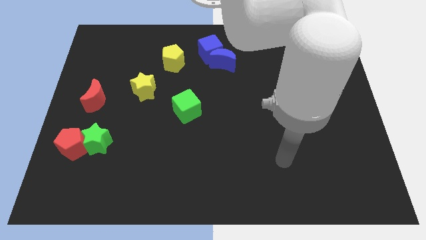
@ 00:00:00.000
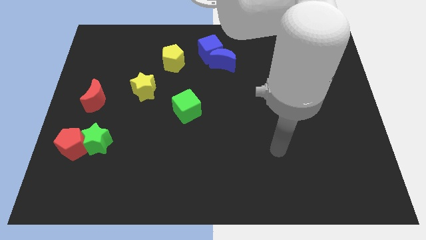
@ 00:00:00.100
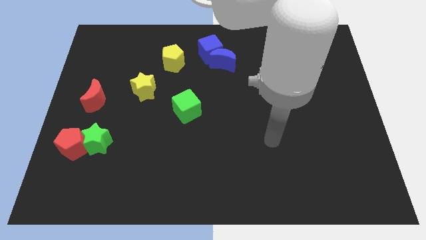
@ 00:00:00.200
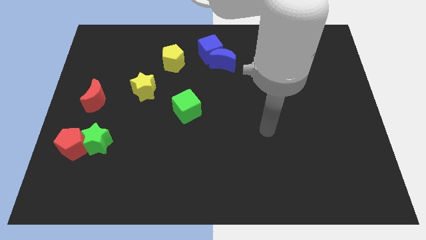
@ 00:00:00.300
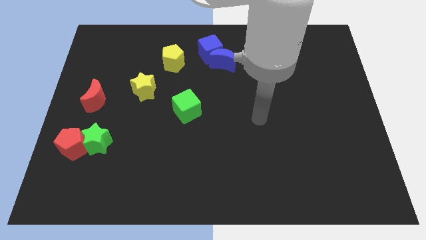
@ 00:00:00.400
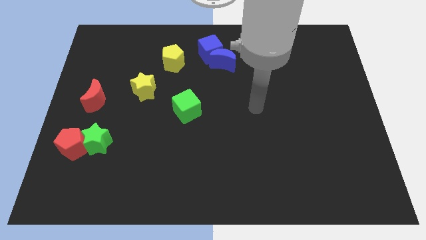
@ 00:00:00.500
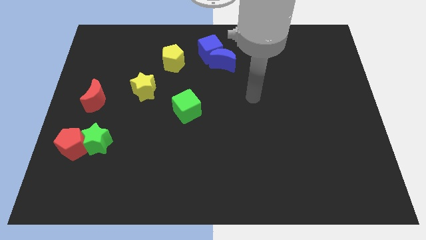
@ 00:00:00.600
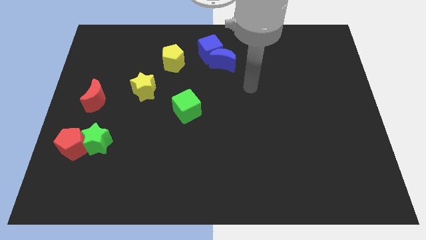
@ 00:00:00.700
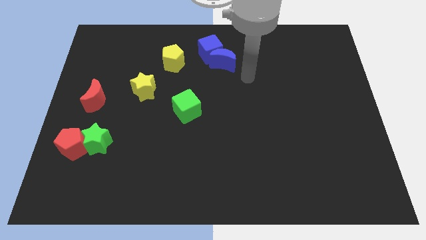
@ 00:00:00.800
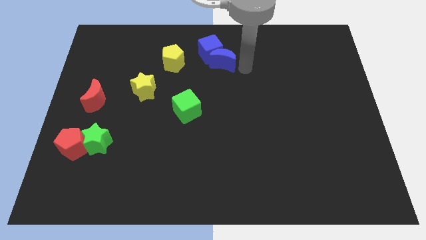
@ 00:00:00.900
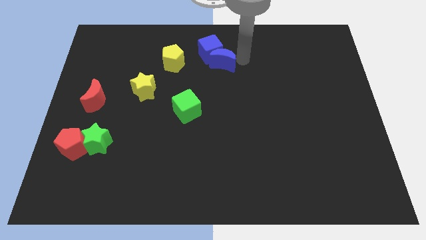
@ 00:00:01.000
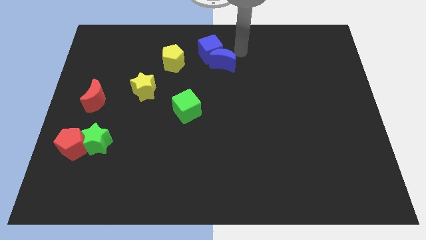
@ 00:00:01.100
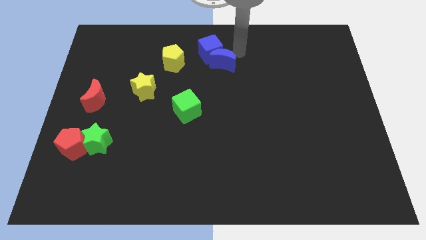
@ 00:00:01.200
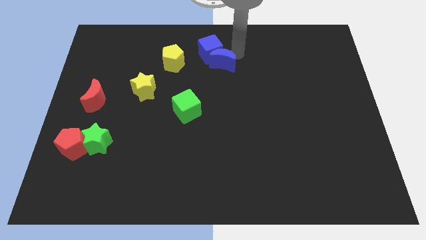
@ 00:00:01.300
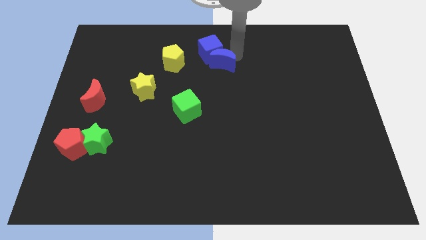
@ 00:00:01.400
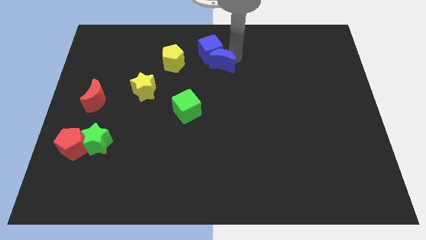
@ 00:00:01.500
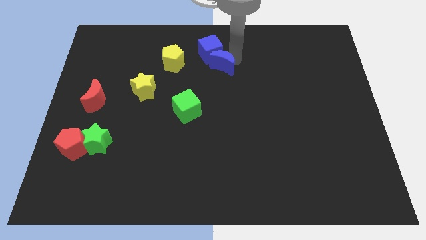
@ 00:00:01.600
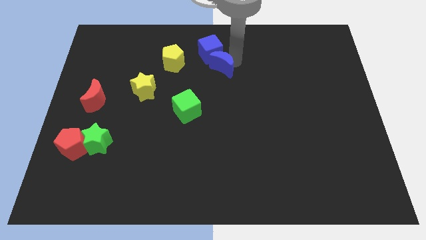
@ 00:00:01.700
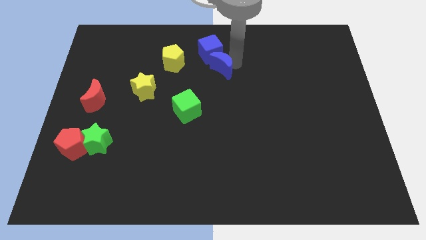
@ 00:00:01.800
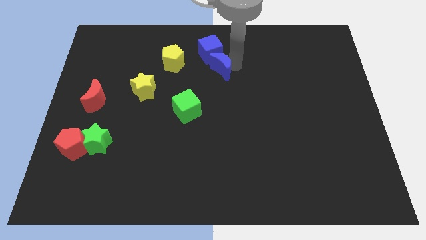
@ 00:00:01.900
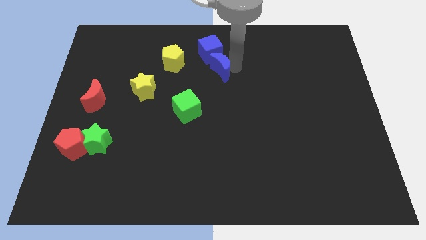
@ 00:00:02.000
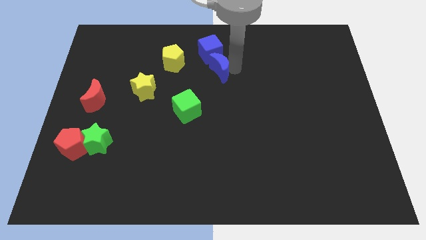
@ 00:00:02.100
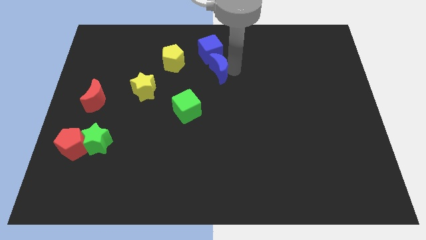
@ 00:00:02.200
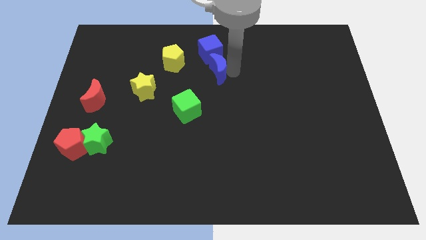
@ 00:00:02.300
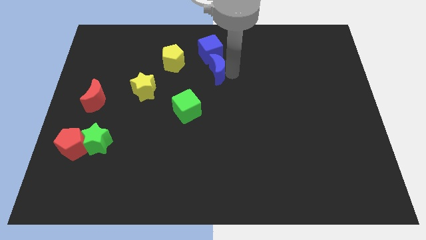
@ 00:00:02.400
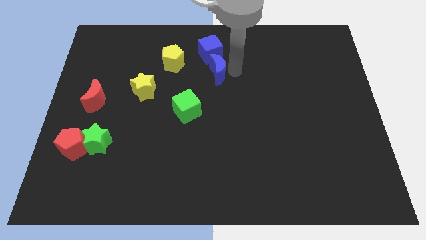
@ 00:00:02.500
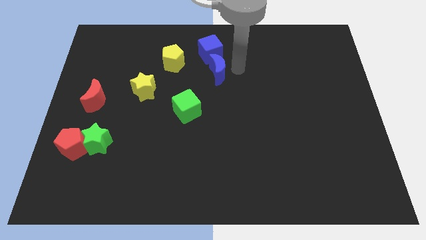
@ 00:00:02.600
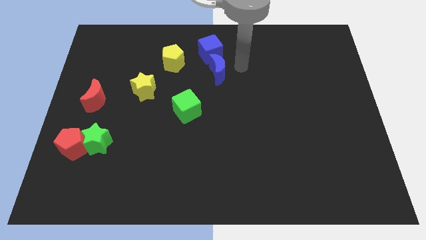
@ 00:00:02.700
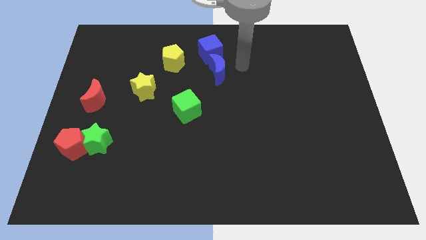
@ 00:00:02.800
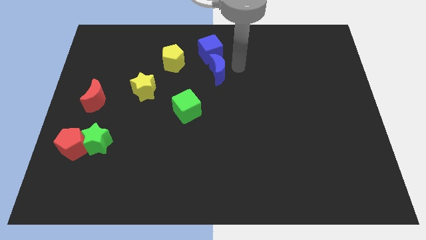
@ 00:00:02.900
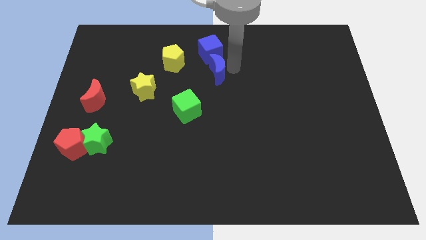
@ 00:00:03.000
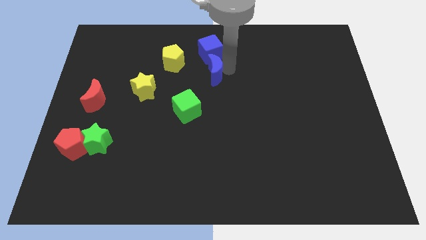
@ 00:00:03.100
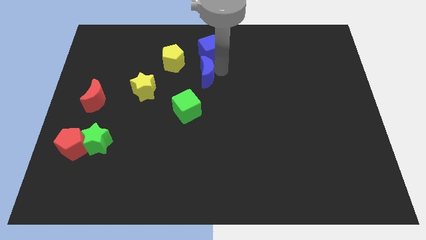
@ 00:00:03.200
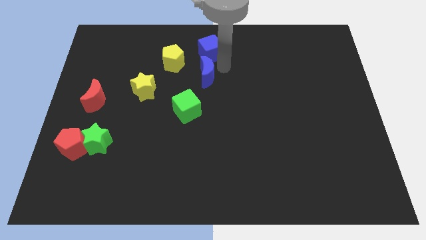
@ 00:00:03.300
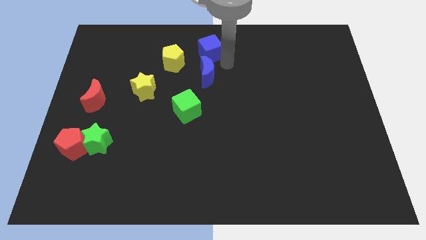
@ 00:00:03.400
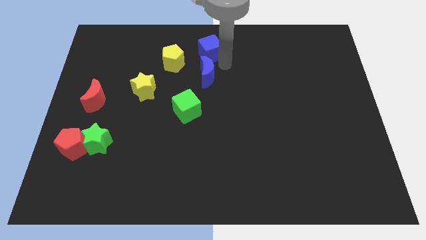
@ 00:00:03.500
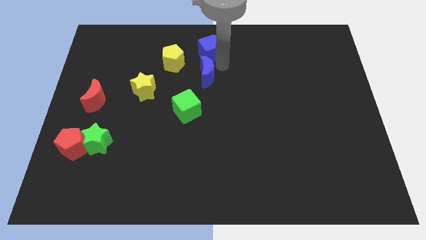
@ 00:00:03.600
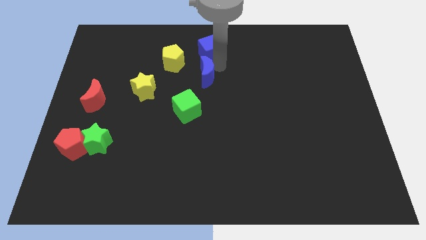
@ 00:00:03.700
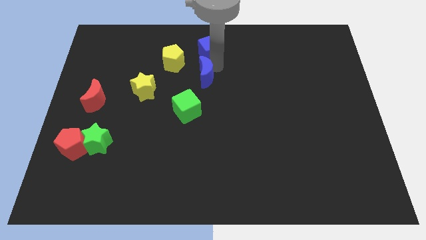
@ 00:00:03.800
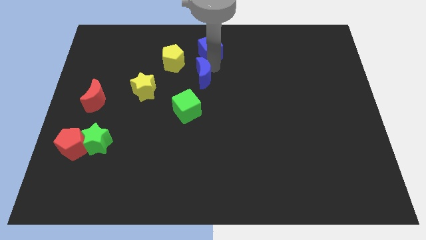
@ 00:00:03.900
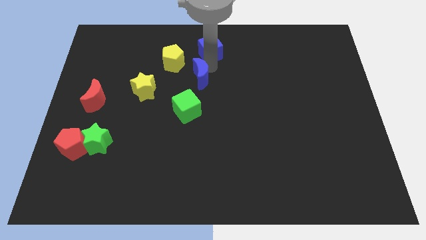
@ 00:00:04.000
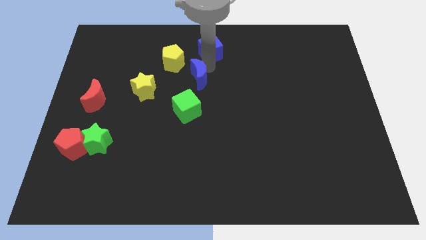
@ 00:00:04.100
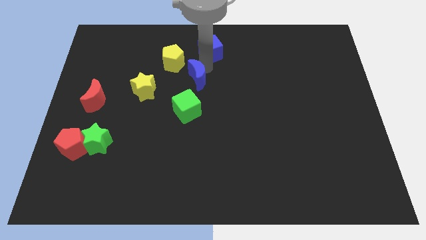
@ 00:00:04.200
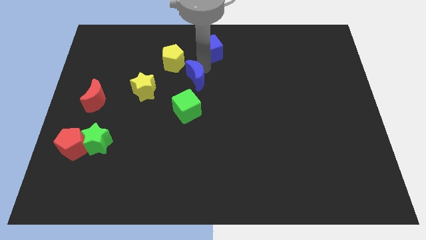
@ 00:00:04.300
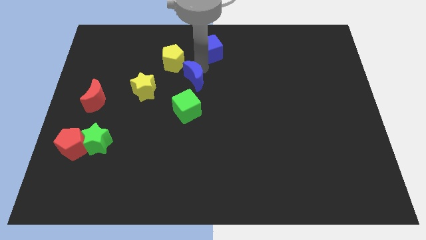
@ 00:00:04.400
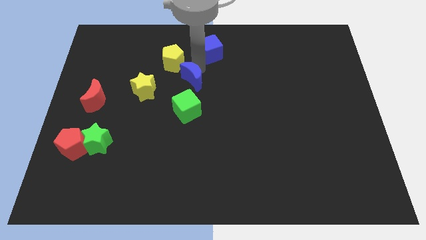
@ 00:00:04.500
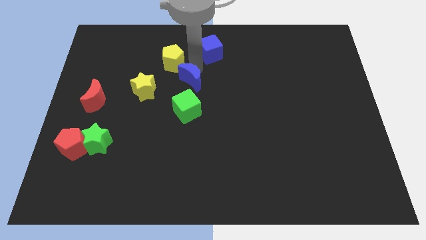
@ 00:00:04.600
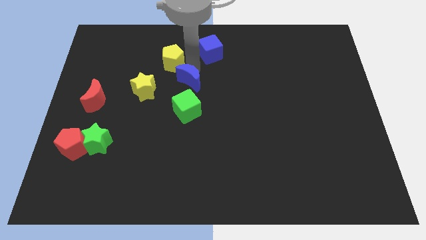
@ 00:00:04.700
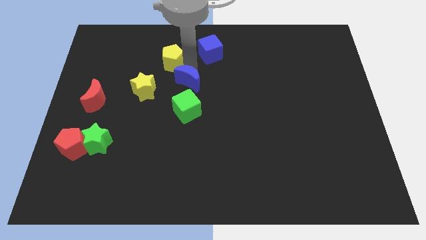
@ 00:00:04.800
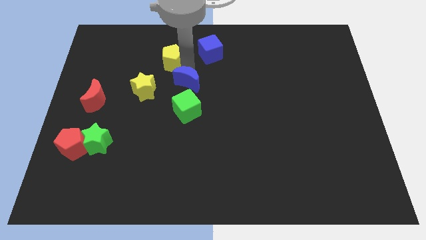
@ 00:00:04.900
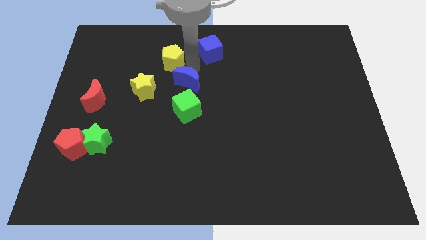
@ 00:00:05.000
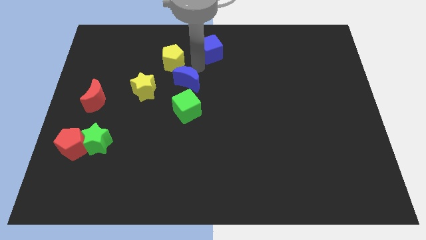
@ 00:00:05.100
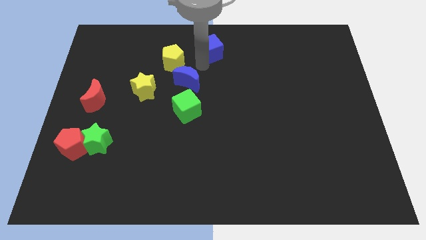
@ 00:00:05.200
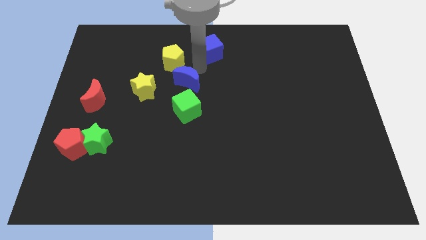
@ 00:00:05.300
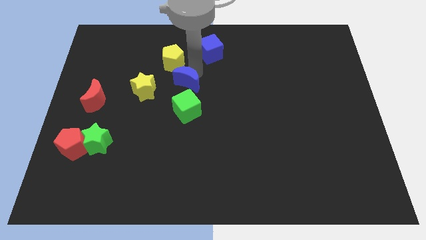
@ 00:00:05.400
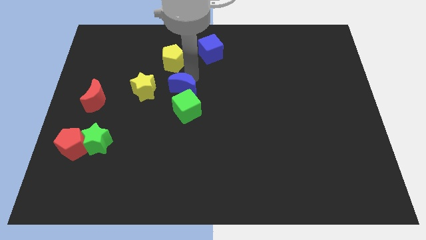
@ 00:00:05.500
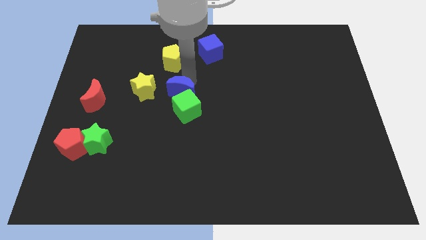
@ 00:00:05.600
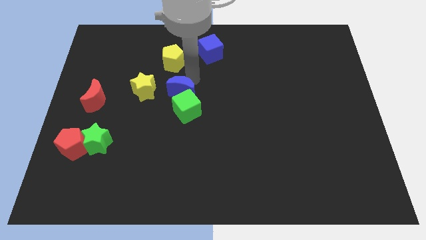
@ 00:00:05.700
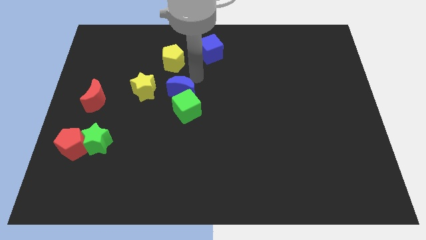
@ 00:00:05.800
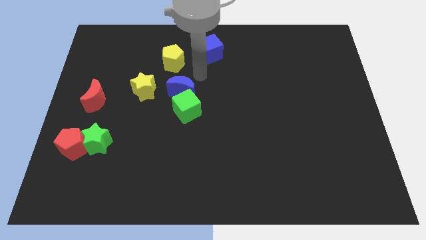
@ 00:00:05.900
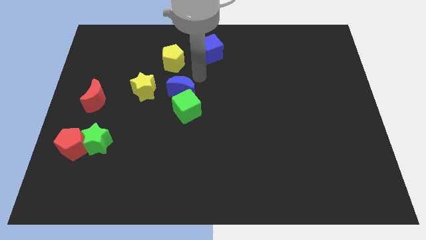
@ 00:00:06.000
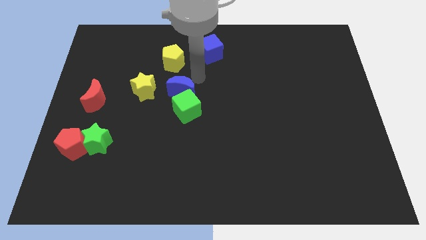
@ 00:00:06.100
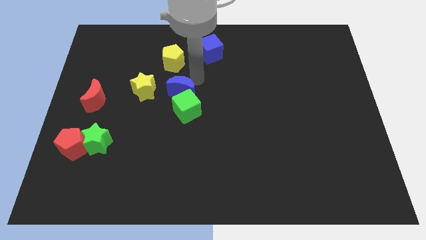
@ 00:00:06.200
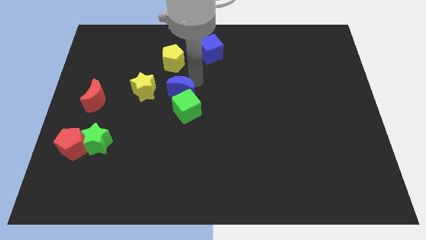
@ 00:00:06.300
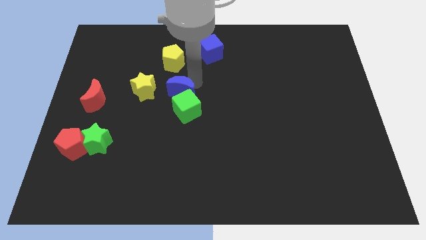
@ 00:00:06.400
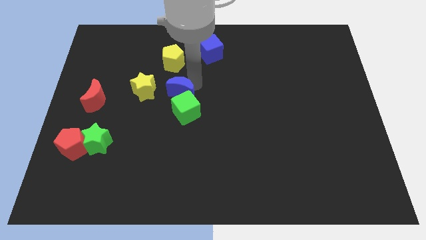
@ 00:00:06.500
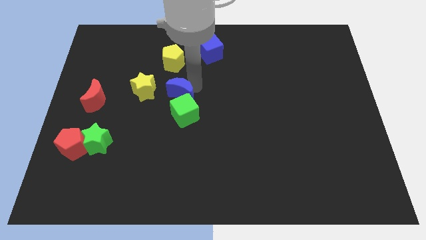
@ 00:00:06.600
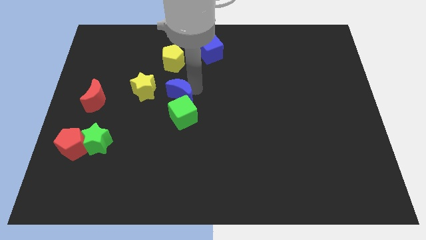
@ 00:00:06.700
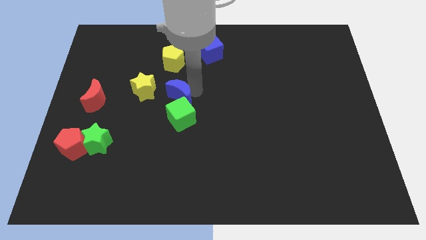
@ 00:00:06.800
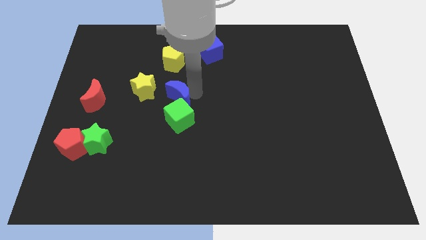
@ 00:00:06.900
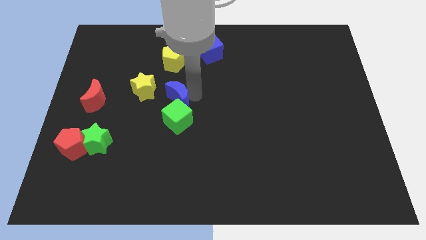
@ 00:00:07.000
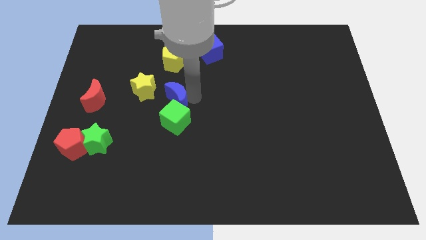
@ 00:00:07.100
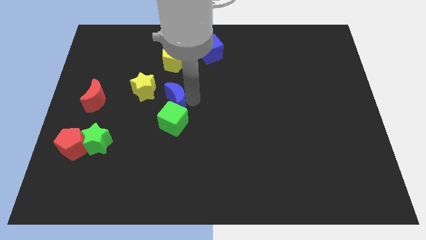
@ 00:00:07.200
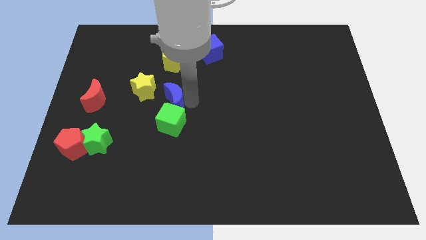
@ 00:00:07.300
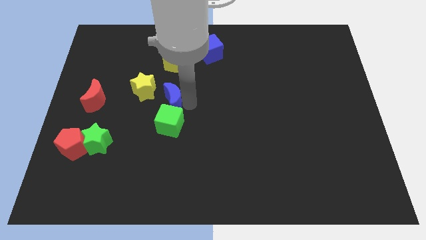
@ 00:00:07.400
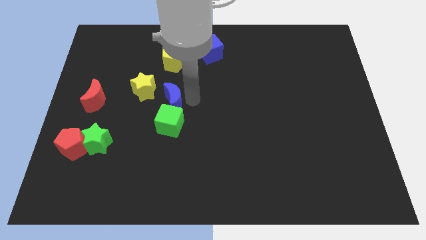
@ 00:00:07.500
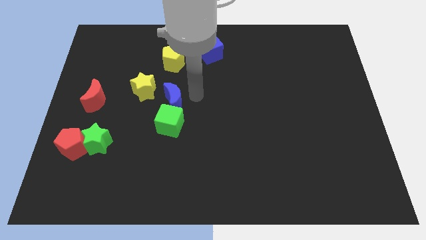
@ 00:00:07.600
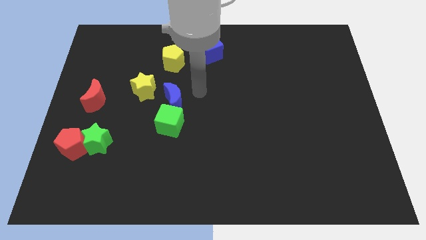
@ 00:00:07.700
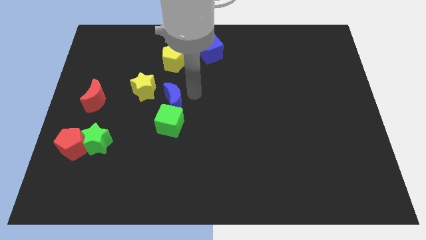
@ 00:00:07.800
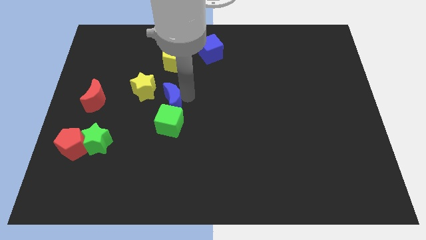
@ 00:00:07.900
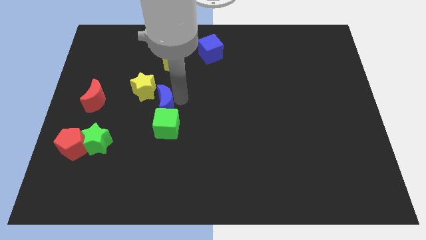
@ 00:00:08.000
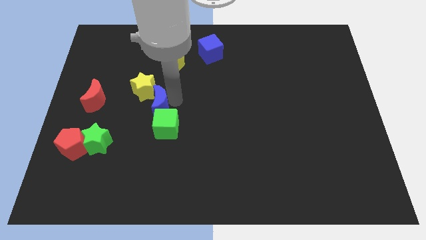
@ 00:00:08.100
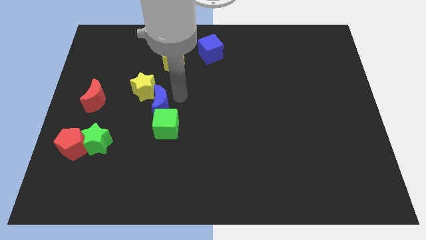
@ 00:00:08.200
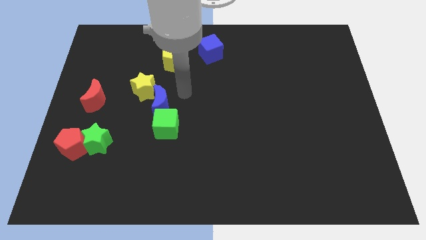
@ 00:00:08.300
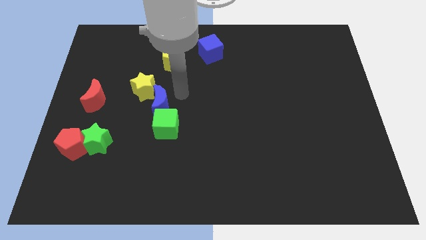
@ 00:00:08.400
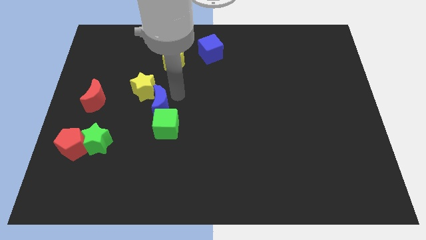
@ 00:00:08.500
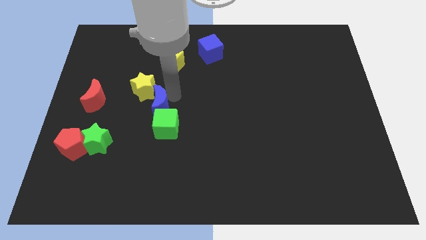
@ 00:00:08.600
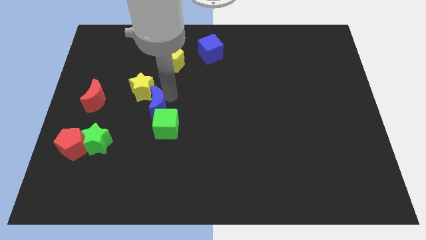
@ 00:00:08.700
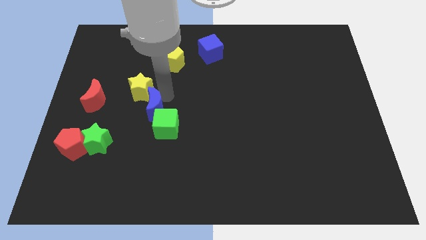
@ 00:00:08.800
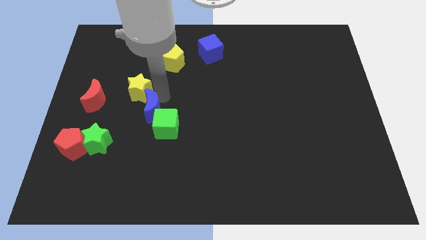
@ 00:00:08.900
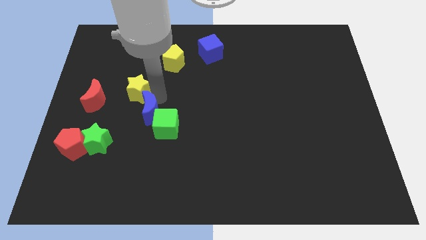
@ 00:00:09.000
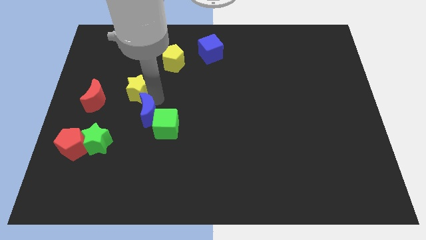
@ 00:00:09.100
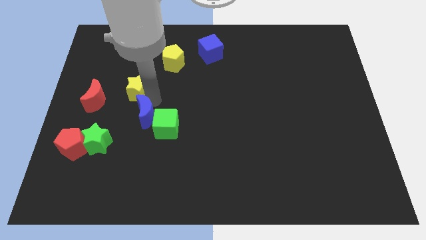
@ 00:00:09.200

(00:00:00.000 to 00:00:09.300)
push the blue moon diagonally up and to the right of the green star
